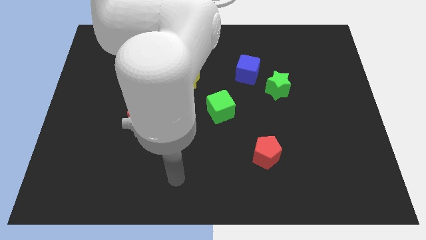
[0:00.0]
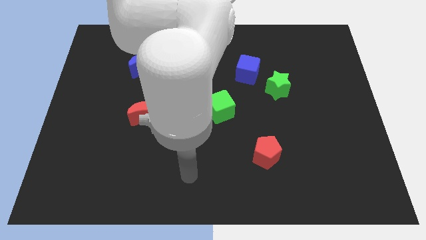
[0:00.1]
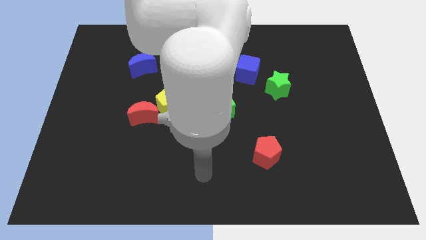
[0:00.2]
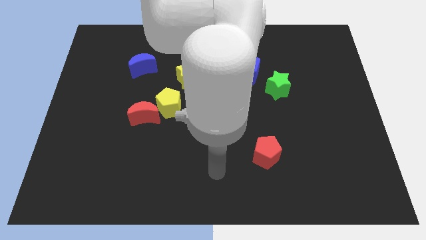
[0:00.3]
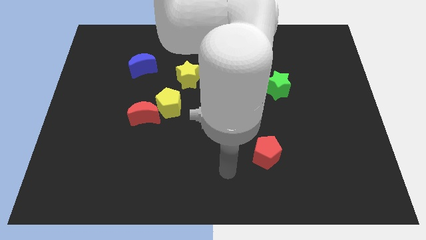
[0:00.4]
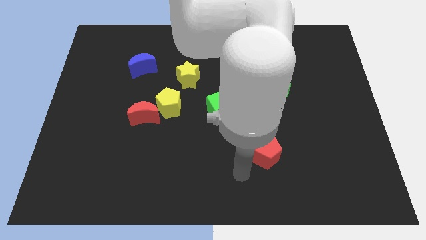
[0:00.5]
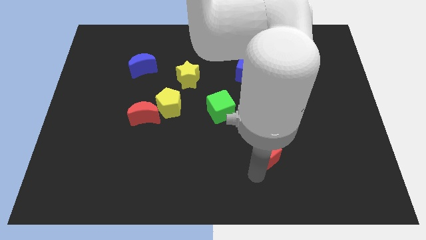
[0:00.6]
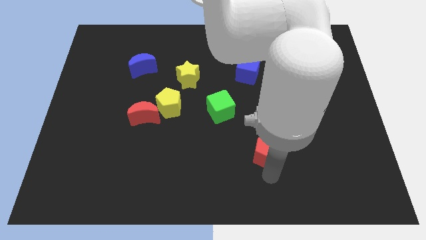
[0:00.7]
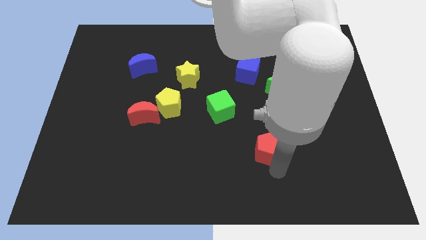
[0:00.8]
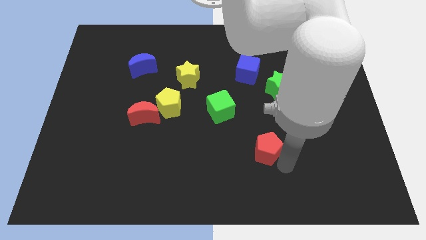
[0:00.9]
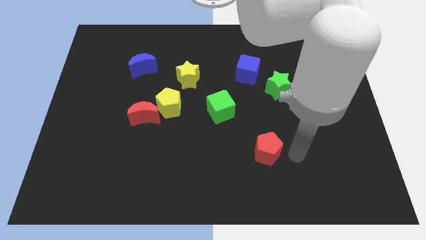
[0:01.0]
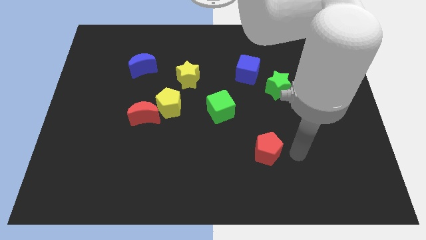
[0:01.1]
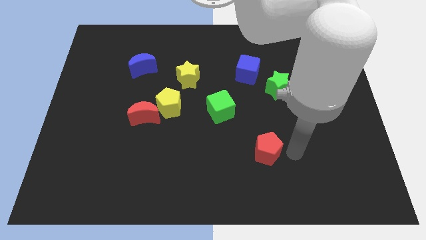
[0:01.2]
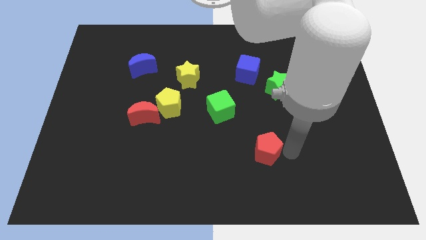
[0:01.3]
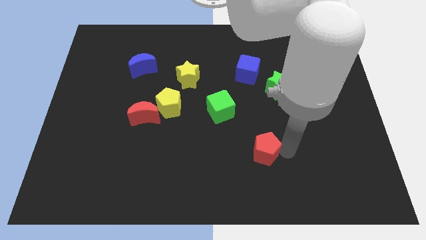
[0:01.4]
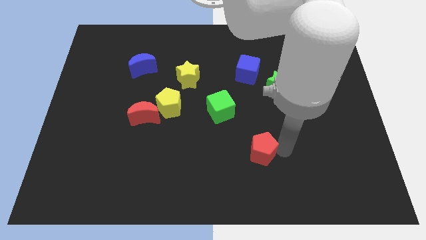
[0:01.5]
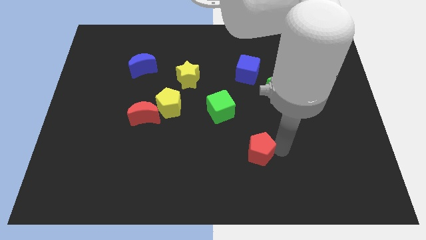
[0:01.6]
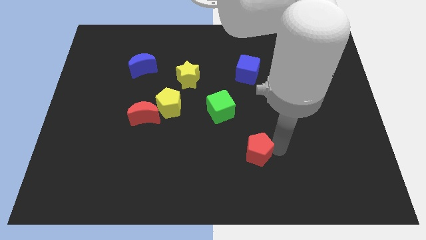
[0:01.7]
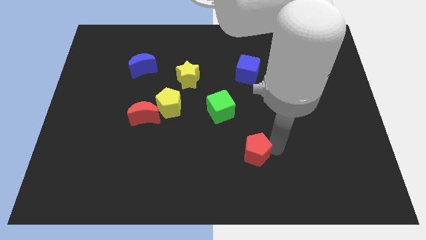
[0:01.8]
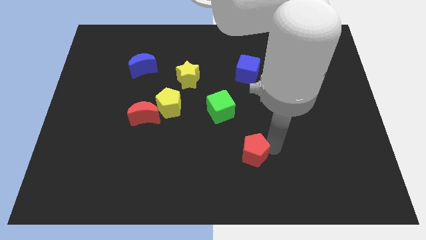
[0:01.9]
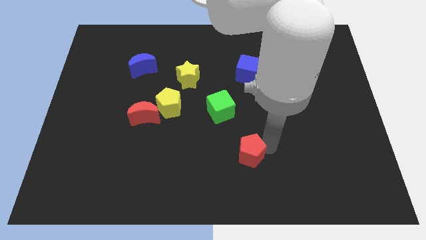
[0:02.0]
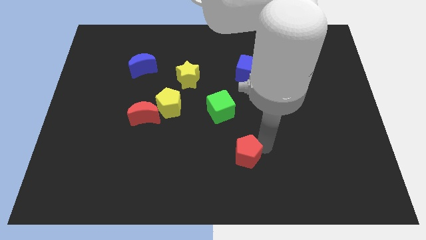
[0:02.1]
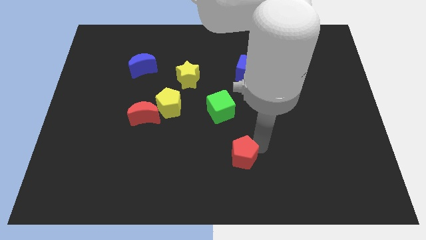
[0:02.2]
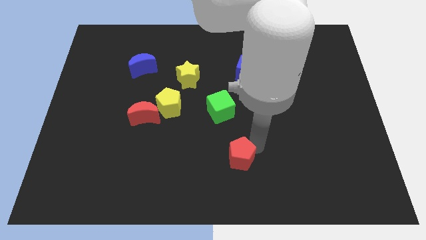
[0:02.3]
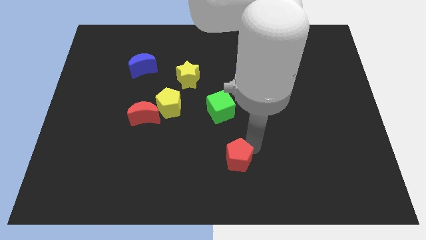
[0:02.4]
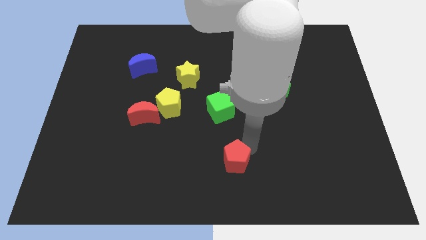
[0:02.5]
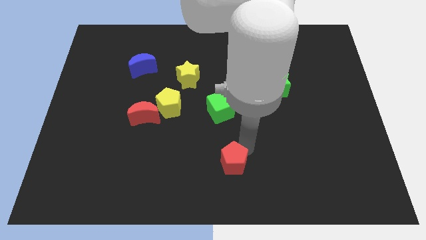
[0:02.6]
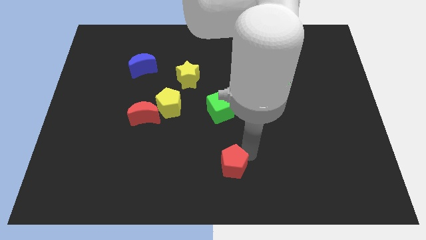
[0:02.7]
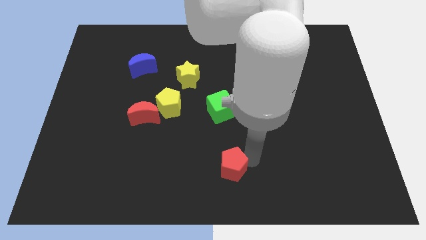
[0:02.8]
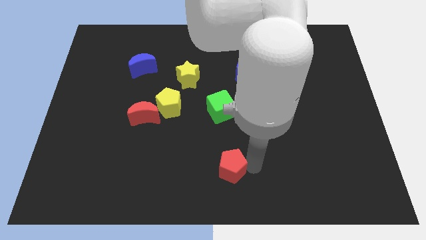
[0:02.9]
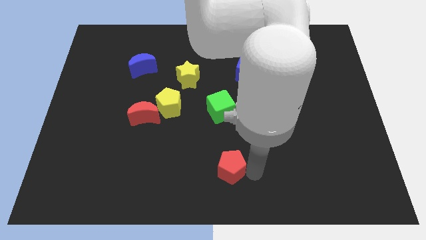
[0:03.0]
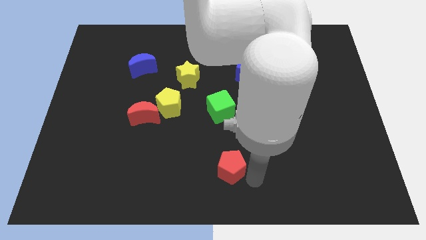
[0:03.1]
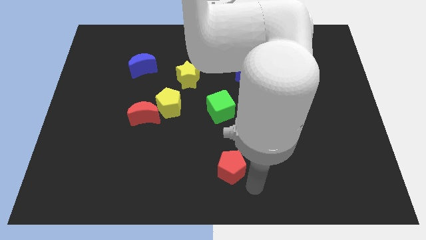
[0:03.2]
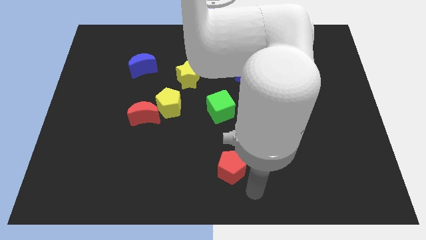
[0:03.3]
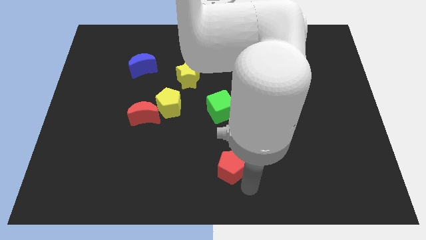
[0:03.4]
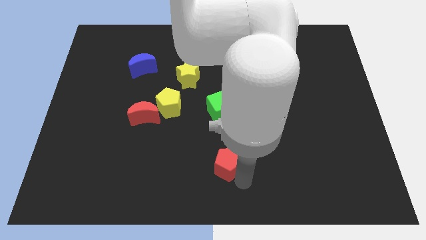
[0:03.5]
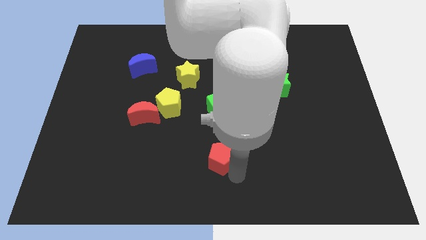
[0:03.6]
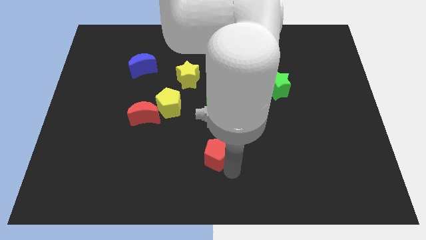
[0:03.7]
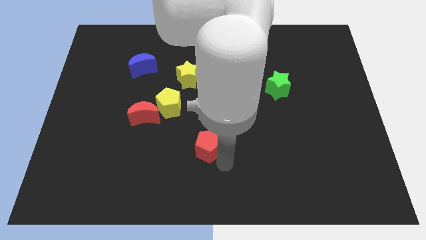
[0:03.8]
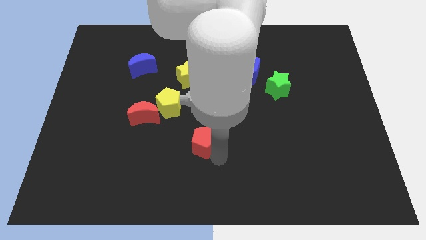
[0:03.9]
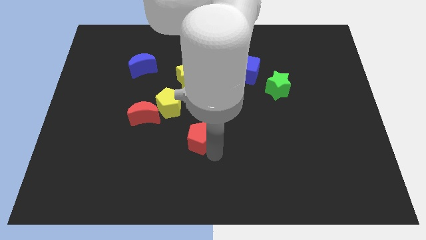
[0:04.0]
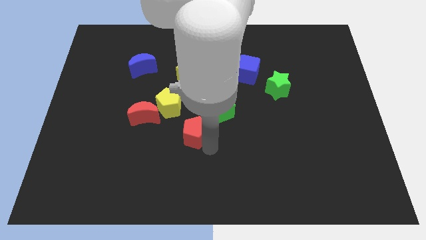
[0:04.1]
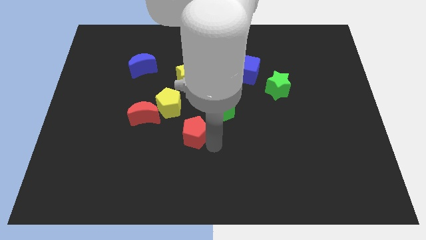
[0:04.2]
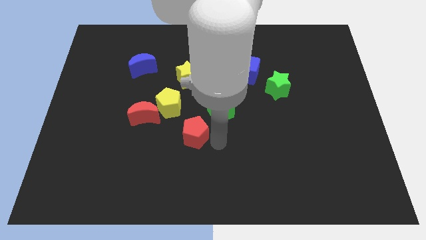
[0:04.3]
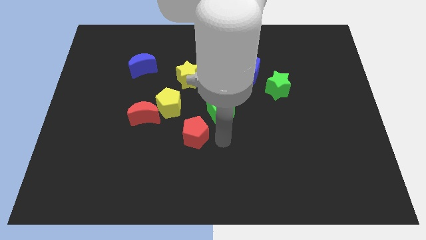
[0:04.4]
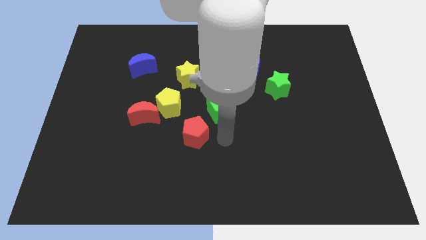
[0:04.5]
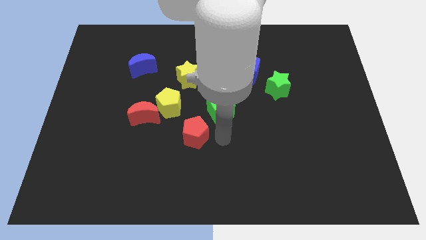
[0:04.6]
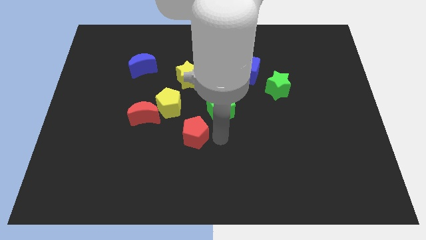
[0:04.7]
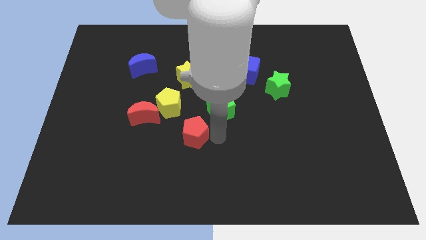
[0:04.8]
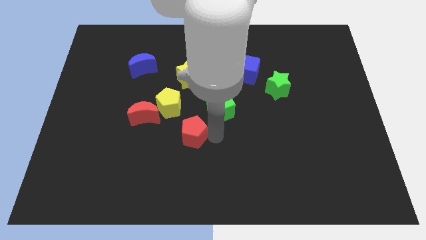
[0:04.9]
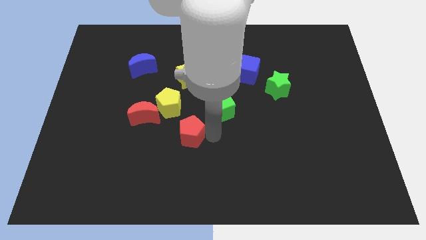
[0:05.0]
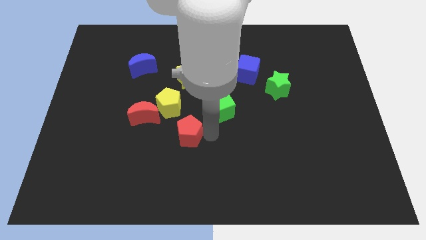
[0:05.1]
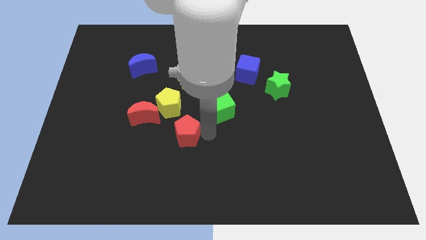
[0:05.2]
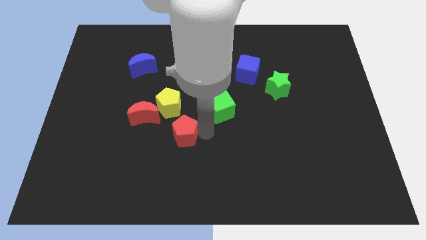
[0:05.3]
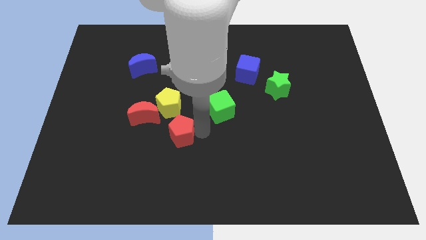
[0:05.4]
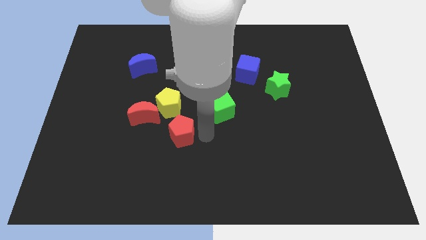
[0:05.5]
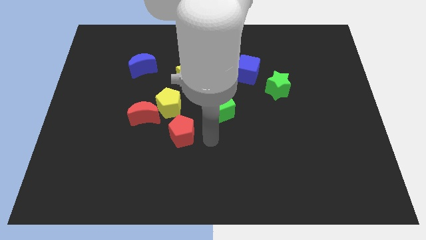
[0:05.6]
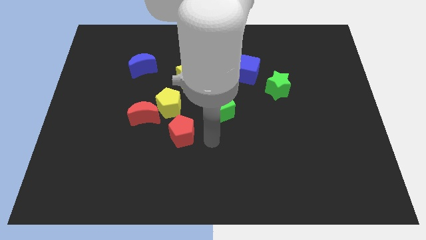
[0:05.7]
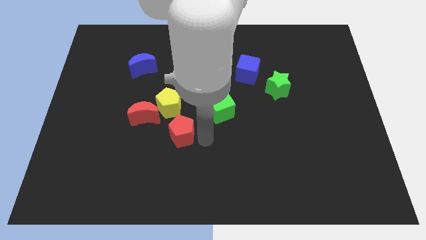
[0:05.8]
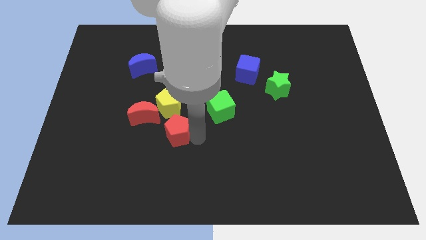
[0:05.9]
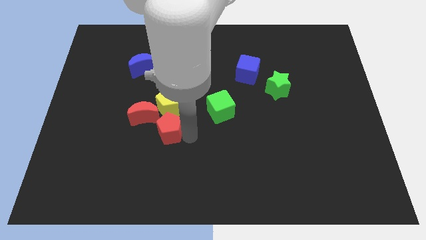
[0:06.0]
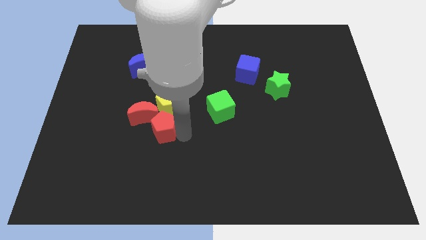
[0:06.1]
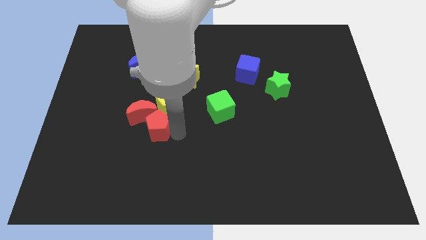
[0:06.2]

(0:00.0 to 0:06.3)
move the red pentagon towards the red moon

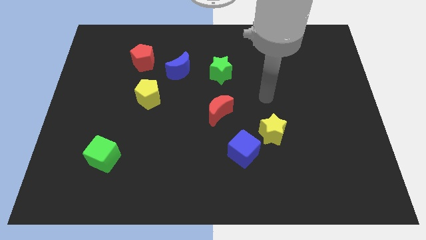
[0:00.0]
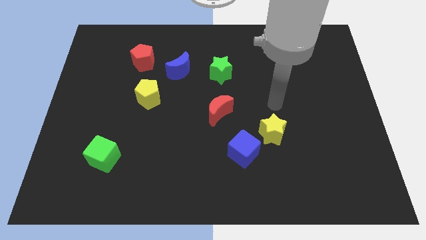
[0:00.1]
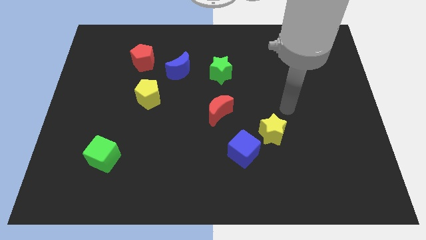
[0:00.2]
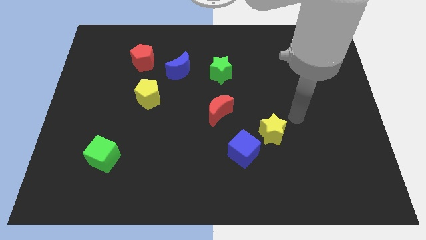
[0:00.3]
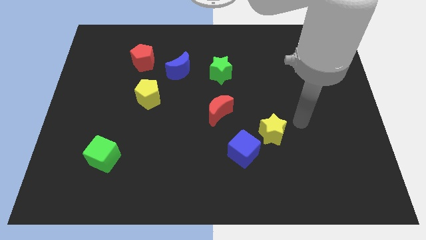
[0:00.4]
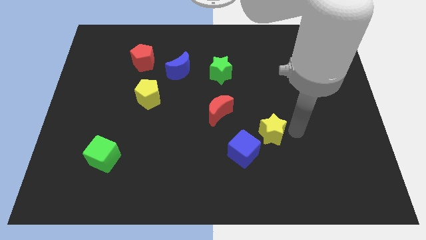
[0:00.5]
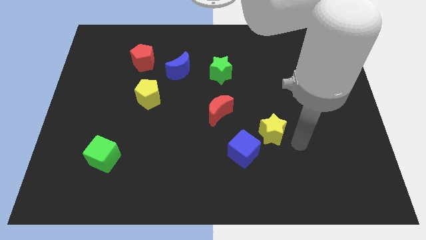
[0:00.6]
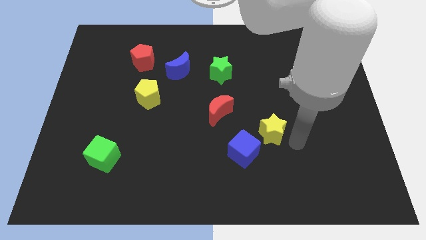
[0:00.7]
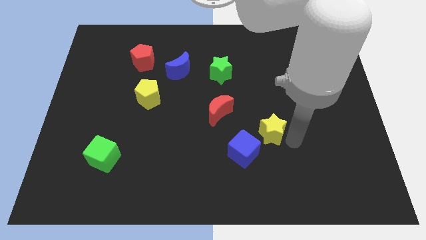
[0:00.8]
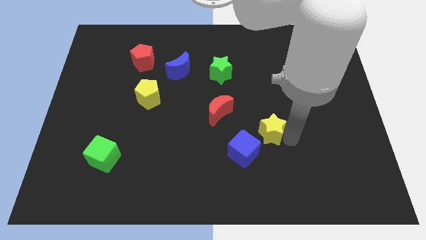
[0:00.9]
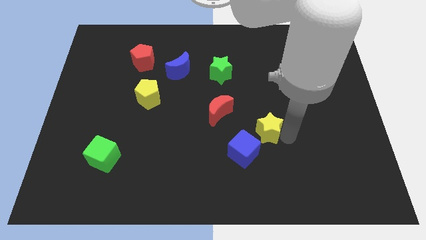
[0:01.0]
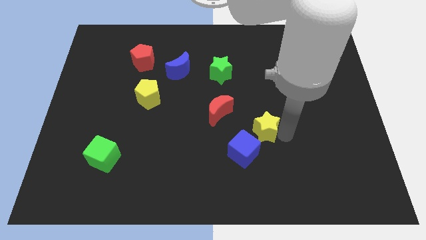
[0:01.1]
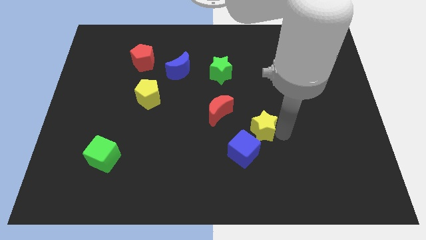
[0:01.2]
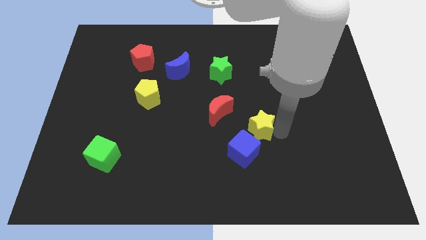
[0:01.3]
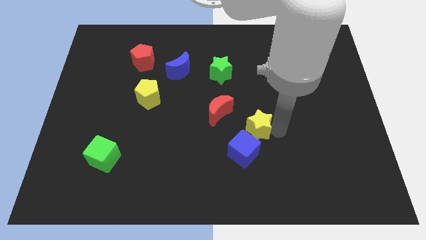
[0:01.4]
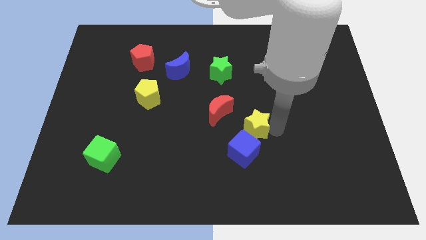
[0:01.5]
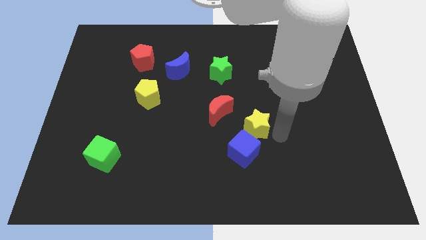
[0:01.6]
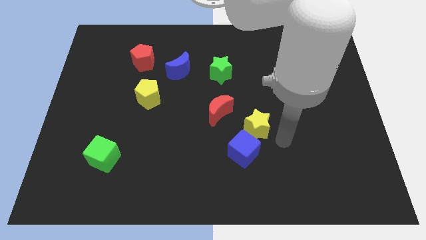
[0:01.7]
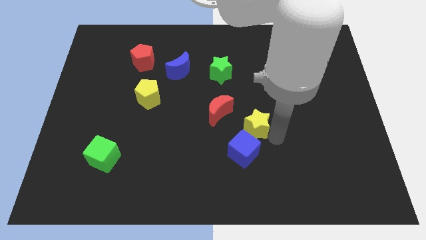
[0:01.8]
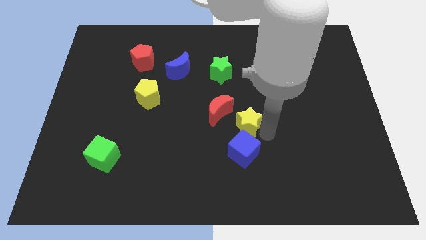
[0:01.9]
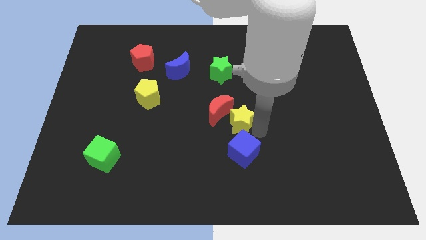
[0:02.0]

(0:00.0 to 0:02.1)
push the yellow star next to the red moon
